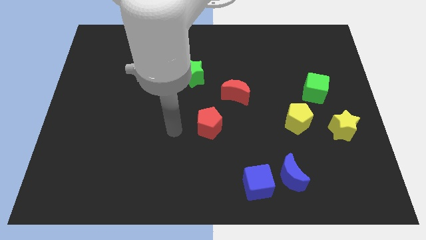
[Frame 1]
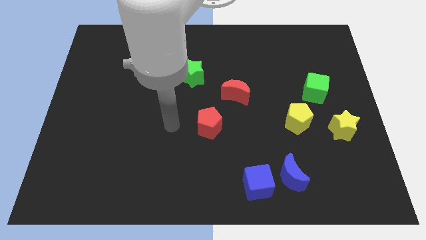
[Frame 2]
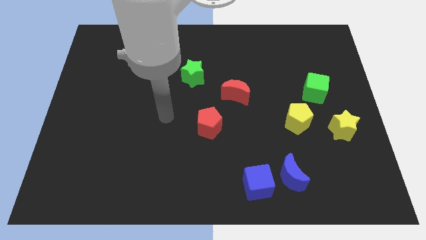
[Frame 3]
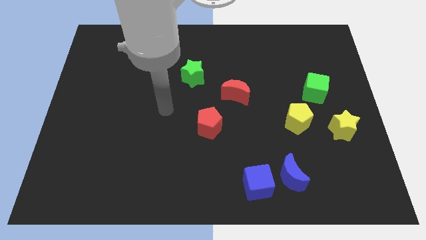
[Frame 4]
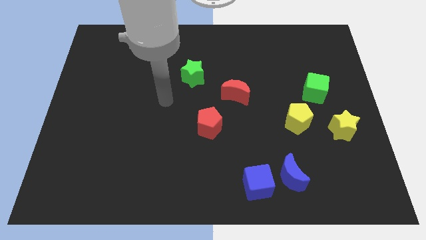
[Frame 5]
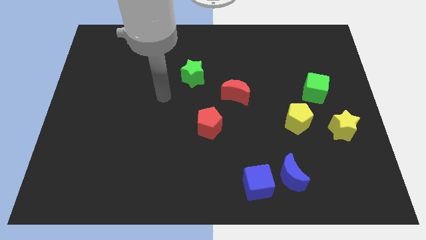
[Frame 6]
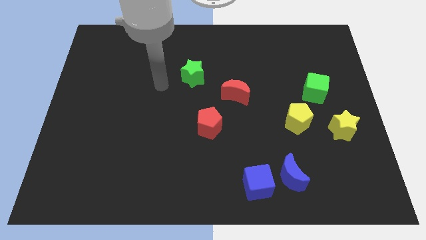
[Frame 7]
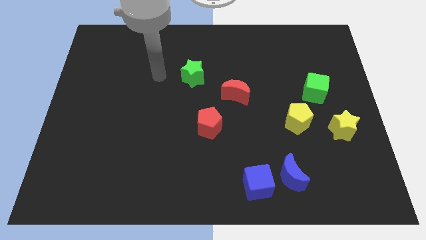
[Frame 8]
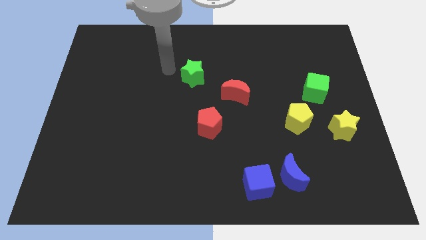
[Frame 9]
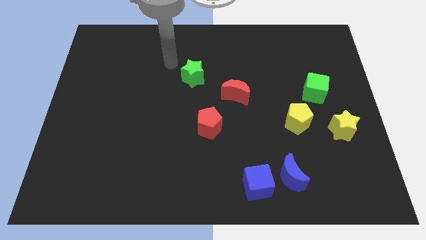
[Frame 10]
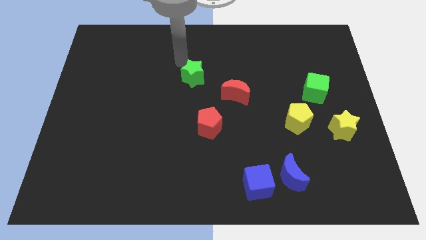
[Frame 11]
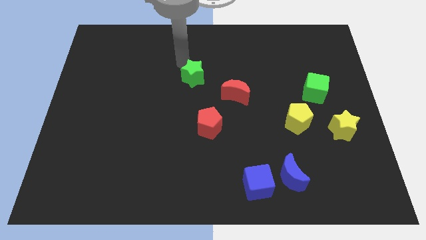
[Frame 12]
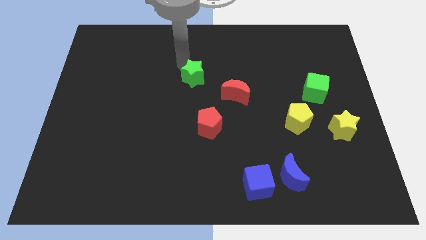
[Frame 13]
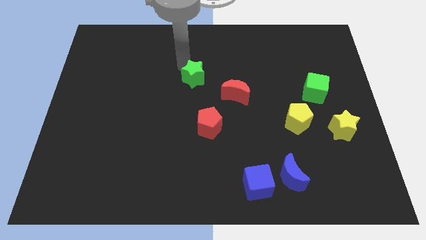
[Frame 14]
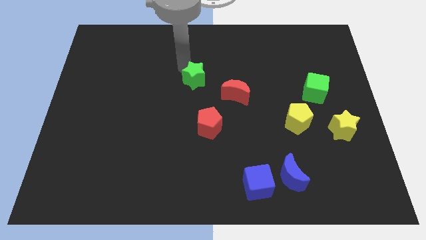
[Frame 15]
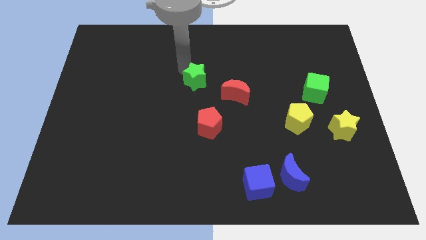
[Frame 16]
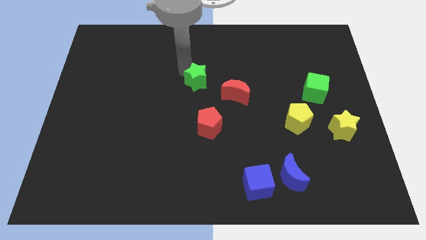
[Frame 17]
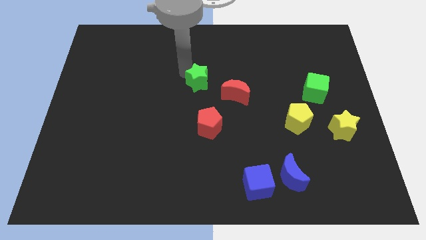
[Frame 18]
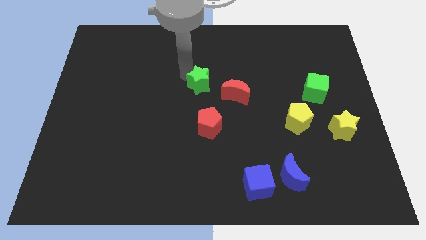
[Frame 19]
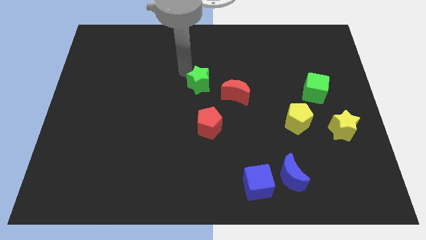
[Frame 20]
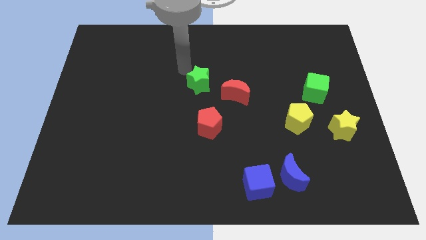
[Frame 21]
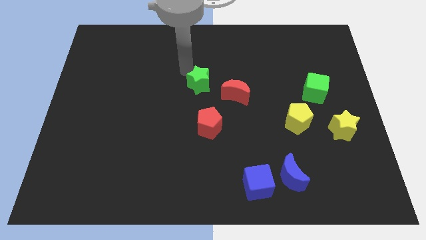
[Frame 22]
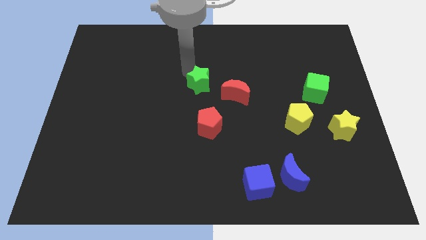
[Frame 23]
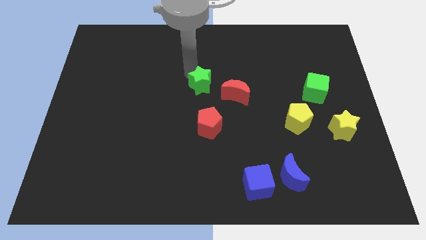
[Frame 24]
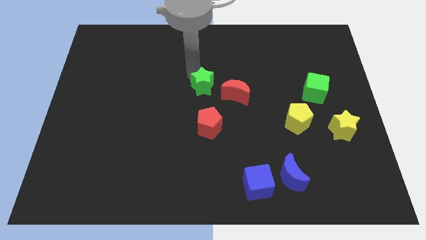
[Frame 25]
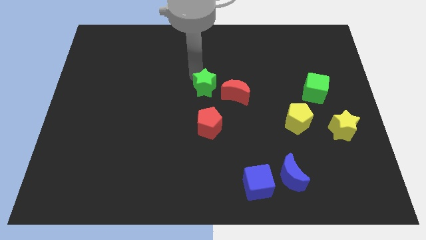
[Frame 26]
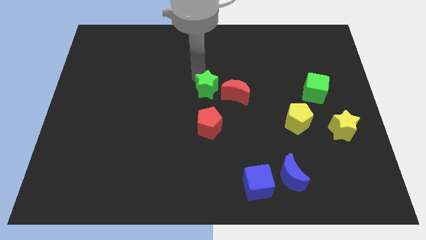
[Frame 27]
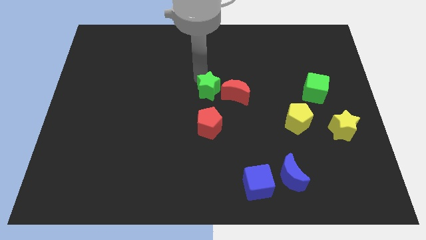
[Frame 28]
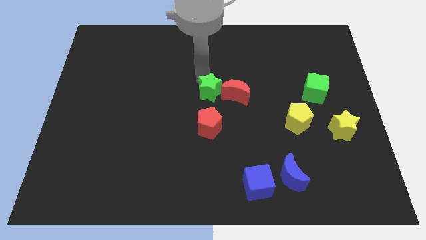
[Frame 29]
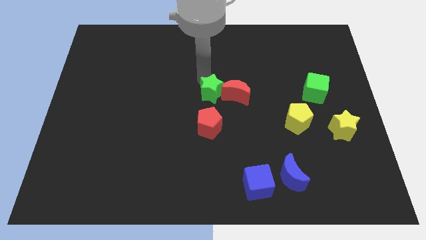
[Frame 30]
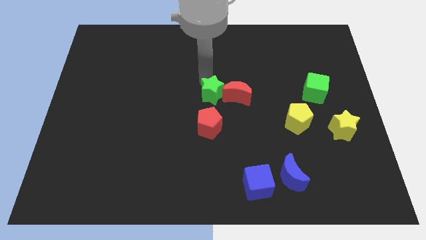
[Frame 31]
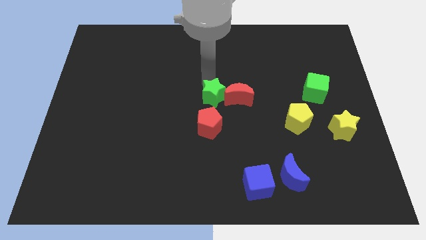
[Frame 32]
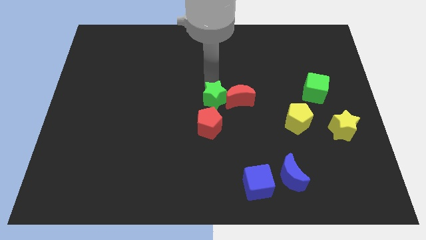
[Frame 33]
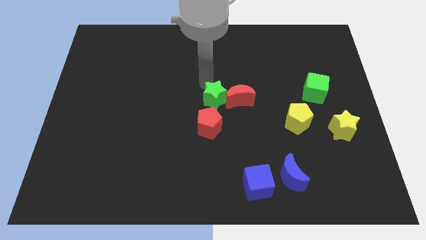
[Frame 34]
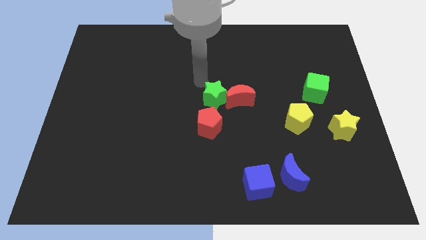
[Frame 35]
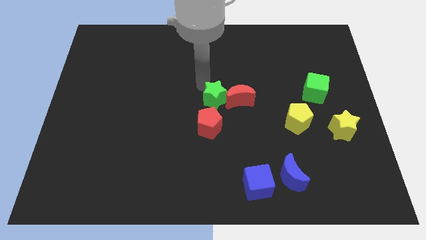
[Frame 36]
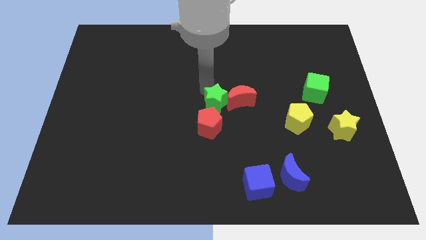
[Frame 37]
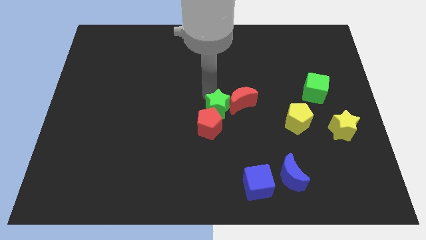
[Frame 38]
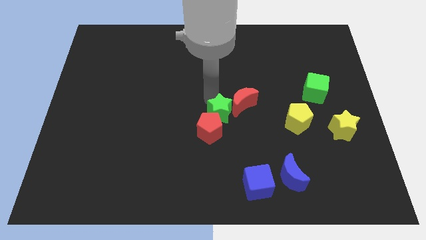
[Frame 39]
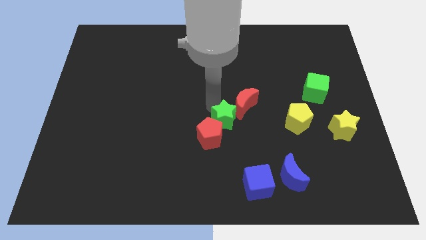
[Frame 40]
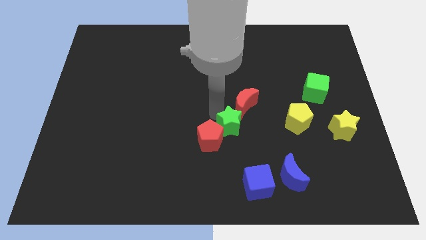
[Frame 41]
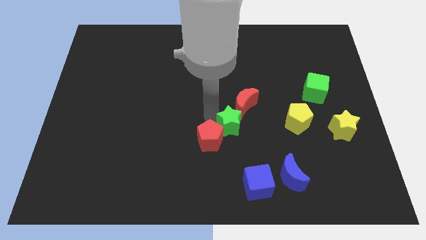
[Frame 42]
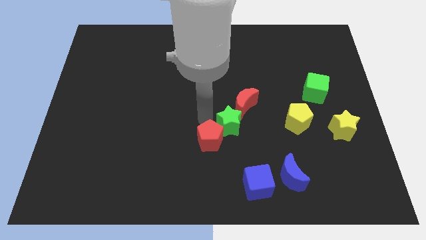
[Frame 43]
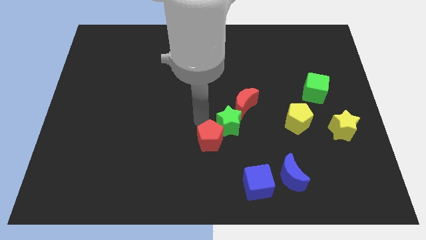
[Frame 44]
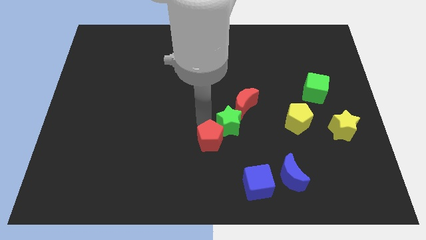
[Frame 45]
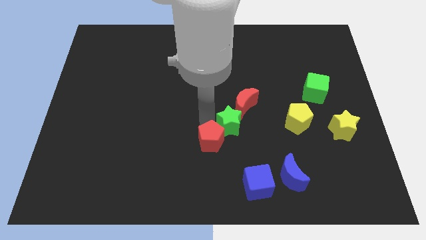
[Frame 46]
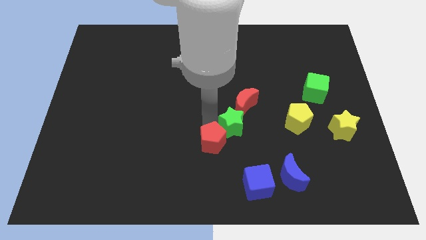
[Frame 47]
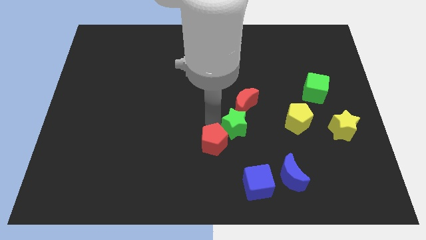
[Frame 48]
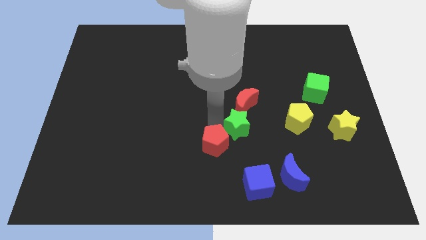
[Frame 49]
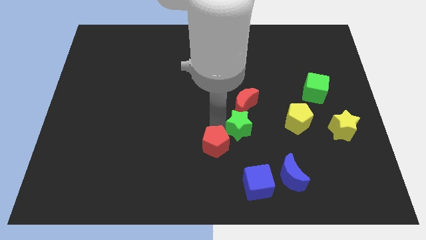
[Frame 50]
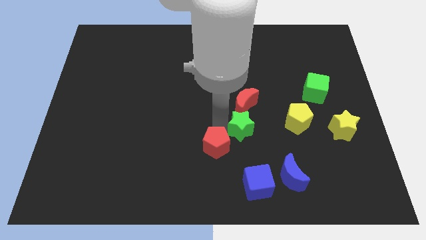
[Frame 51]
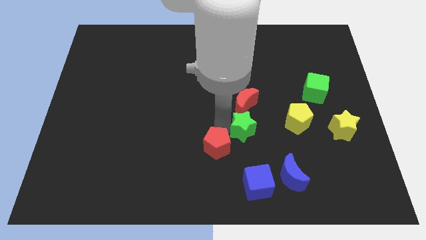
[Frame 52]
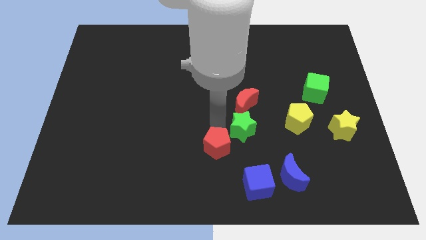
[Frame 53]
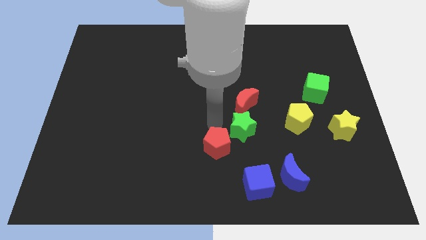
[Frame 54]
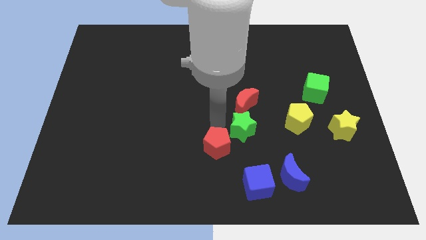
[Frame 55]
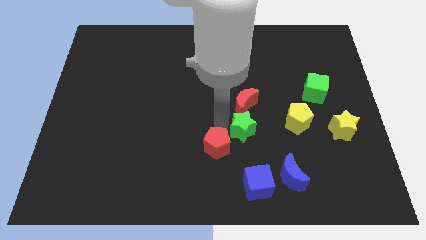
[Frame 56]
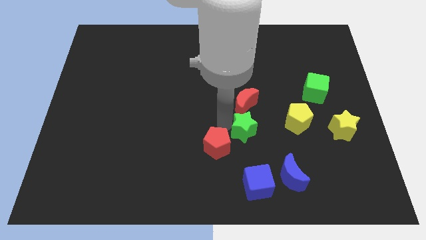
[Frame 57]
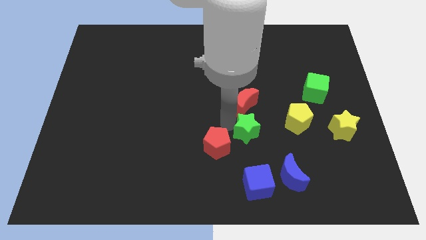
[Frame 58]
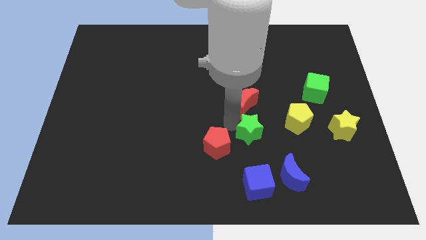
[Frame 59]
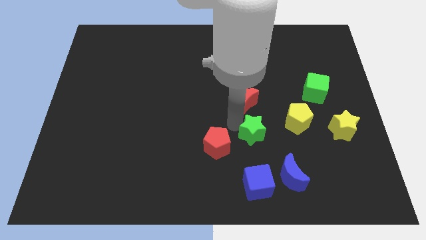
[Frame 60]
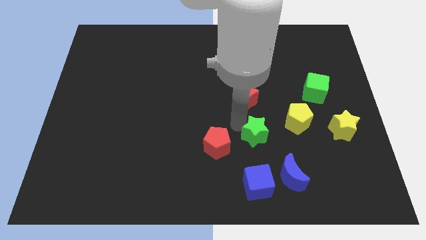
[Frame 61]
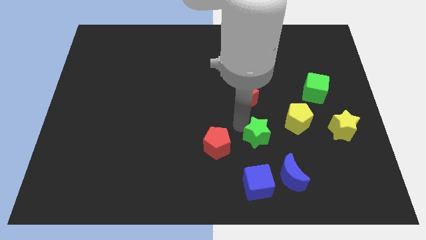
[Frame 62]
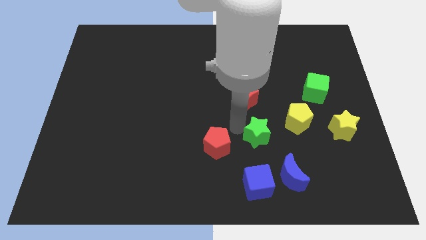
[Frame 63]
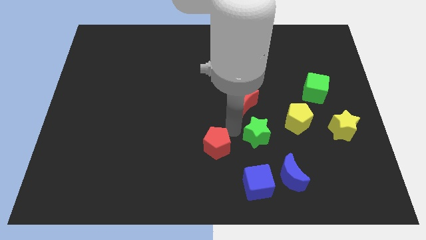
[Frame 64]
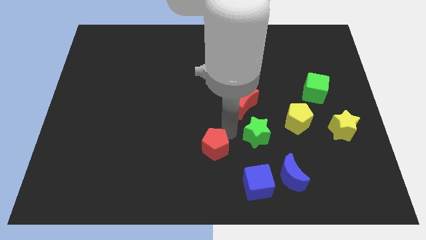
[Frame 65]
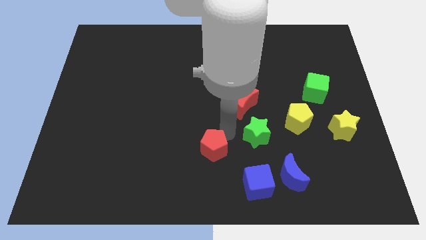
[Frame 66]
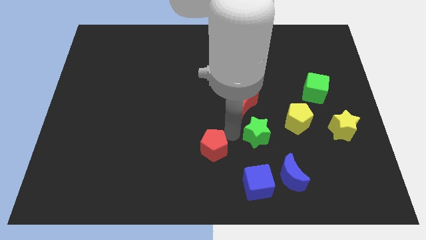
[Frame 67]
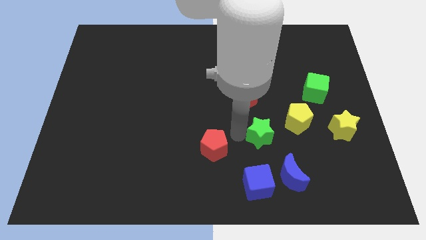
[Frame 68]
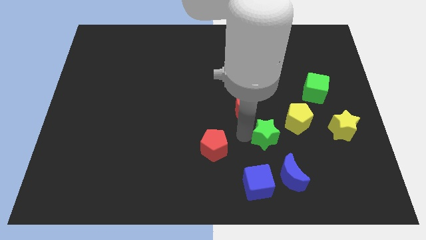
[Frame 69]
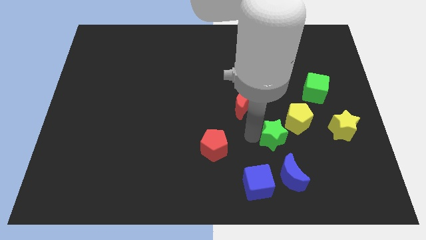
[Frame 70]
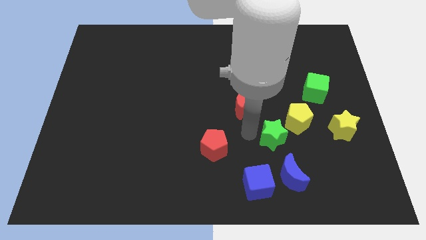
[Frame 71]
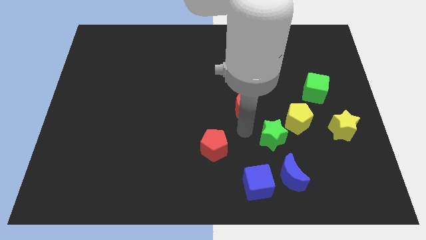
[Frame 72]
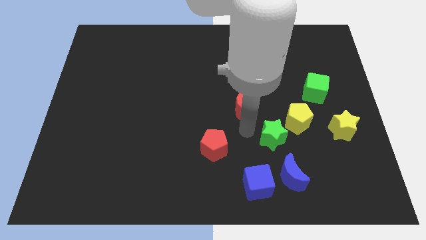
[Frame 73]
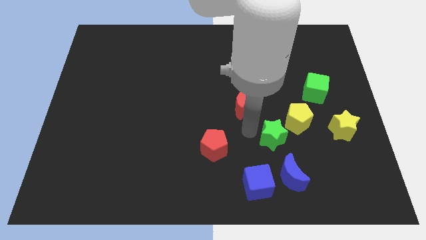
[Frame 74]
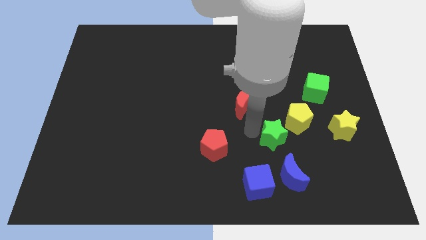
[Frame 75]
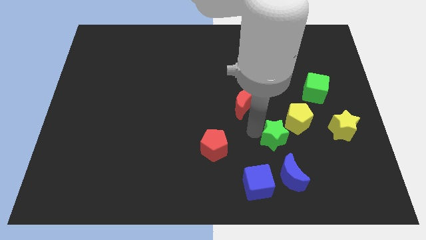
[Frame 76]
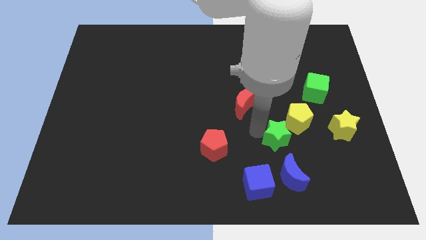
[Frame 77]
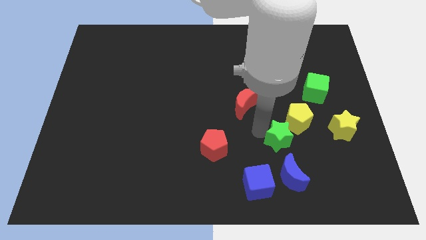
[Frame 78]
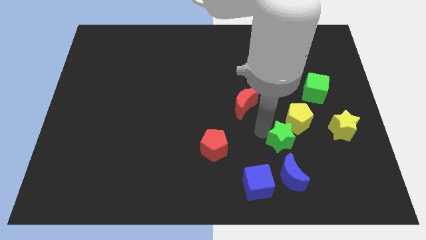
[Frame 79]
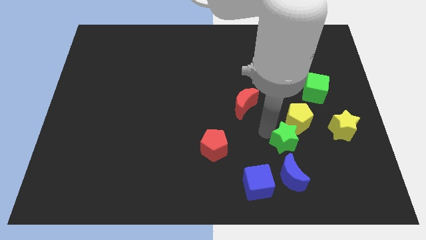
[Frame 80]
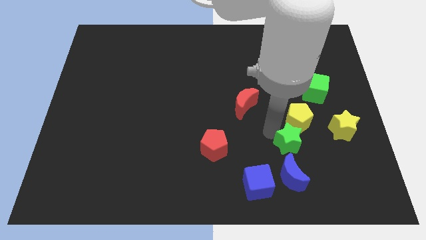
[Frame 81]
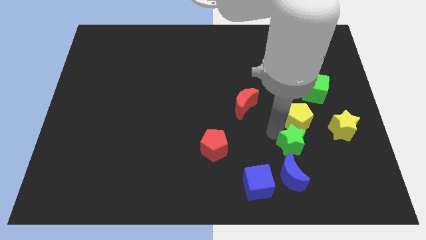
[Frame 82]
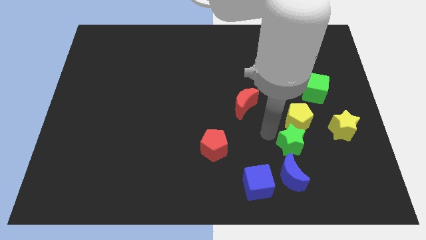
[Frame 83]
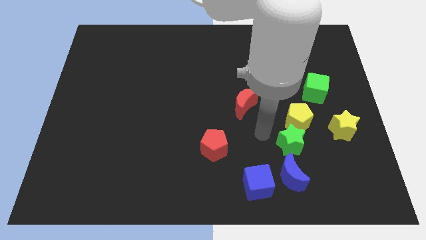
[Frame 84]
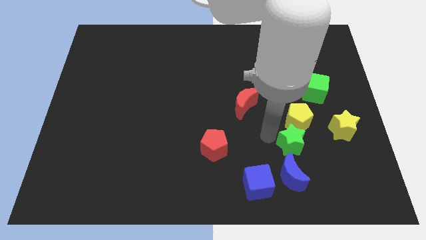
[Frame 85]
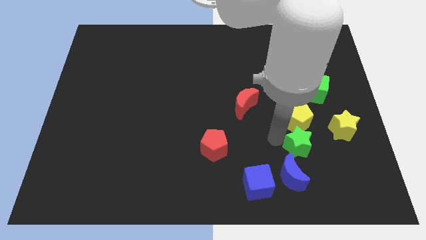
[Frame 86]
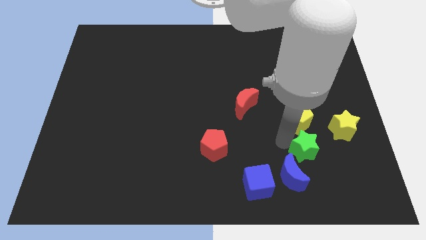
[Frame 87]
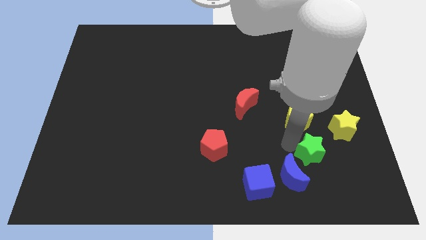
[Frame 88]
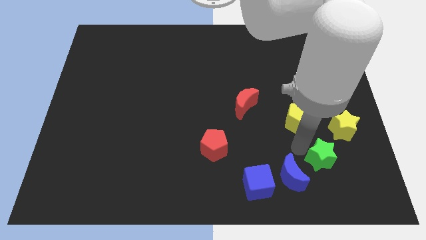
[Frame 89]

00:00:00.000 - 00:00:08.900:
slide the green star to the right side of the blue moon

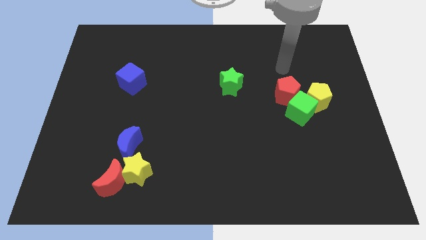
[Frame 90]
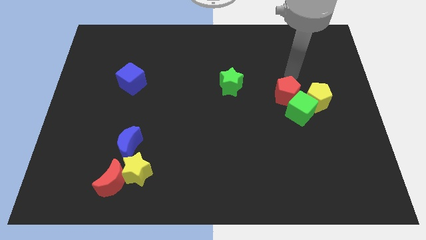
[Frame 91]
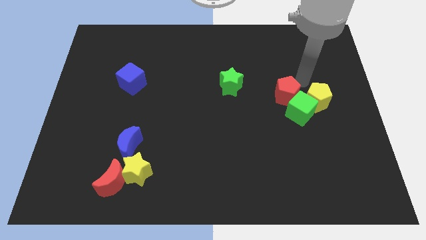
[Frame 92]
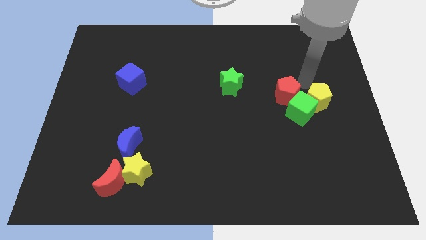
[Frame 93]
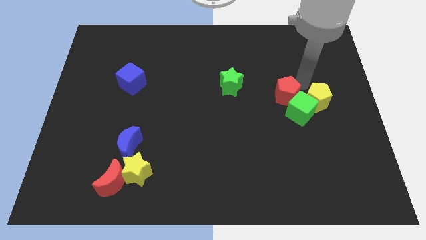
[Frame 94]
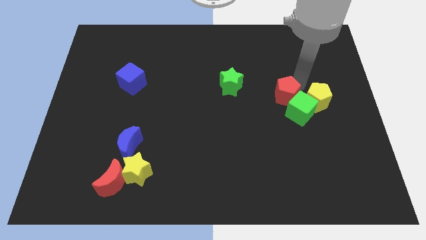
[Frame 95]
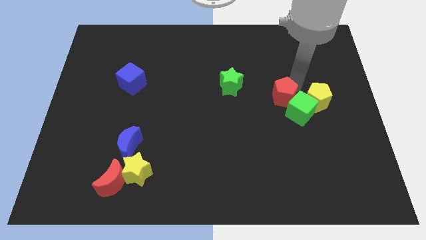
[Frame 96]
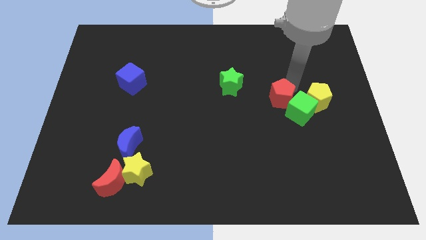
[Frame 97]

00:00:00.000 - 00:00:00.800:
move the red pentagon left of the green cube
